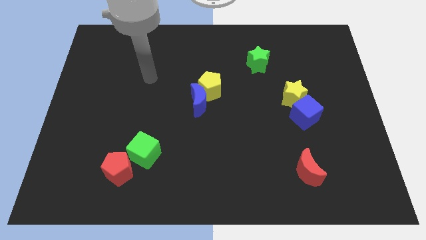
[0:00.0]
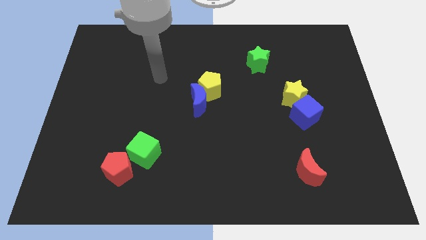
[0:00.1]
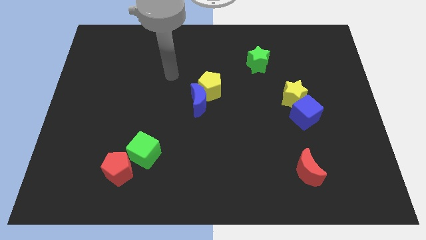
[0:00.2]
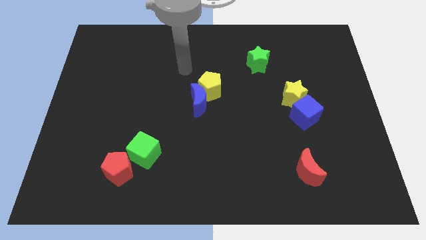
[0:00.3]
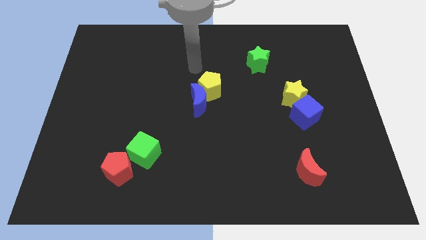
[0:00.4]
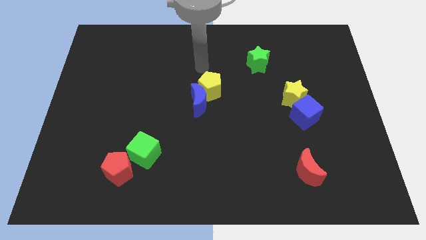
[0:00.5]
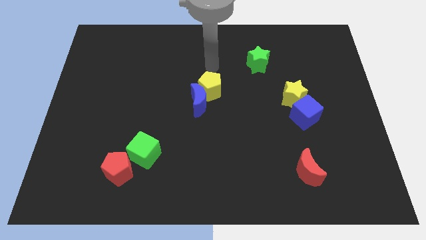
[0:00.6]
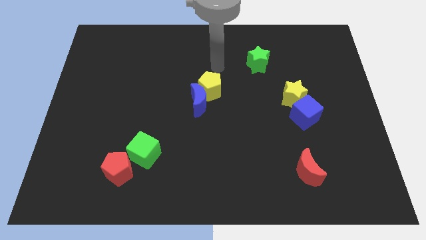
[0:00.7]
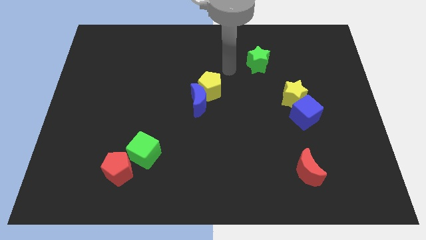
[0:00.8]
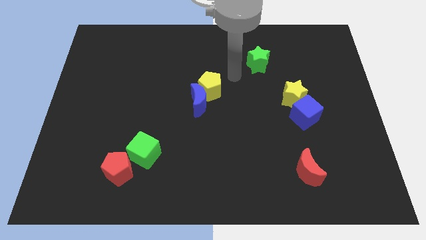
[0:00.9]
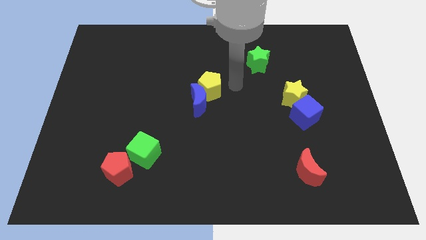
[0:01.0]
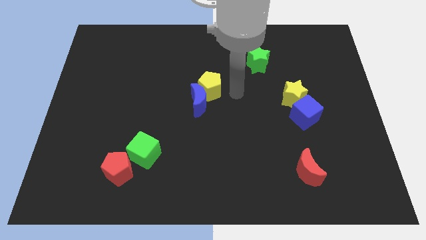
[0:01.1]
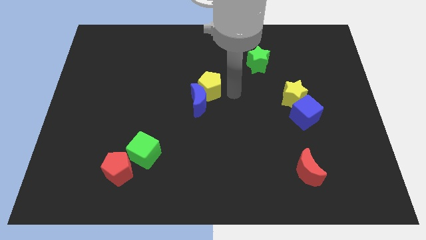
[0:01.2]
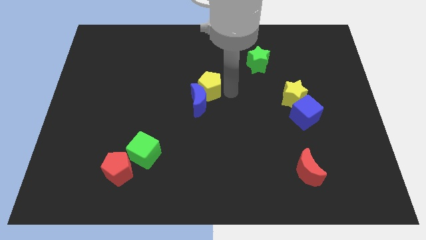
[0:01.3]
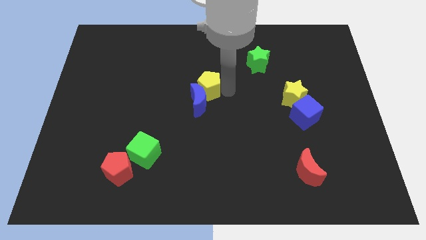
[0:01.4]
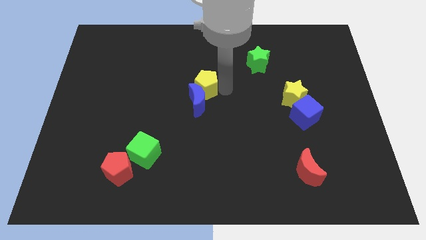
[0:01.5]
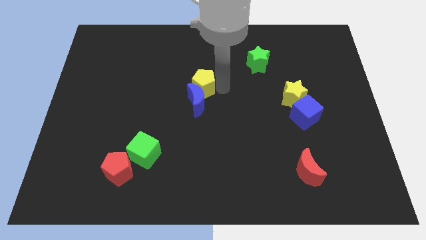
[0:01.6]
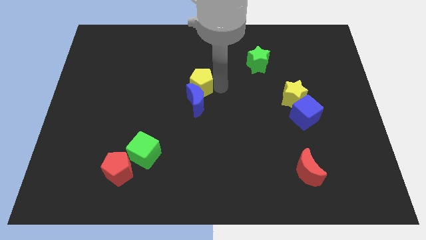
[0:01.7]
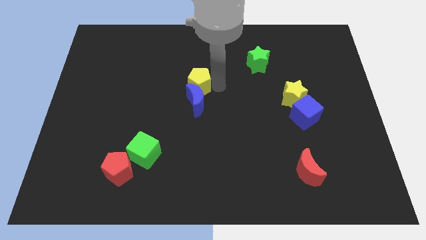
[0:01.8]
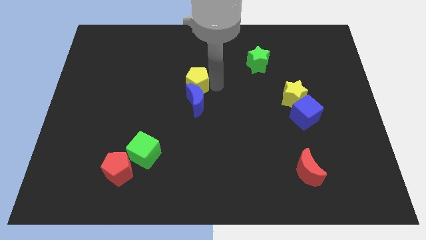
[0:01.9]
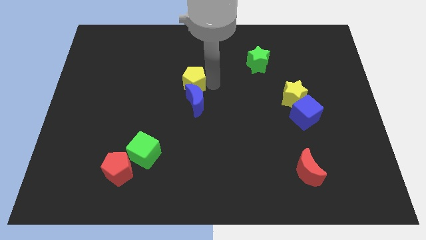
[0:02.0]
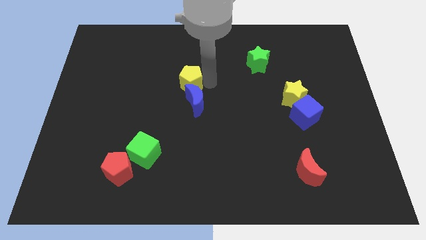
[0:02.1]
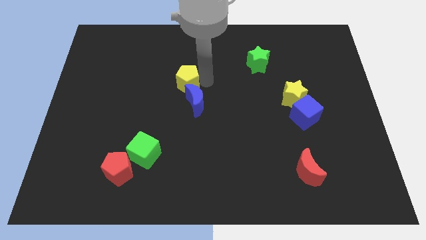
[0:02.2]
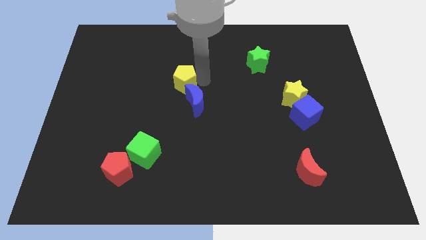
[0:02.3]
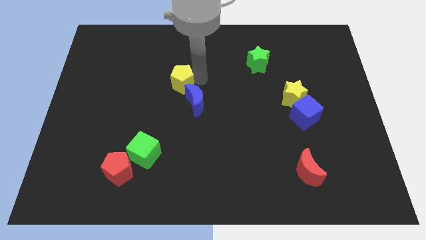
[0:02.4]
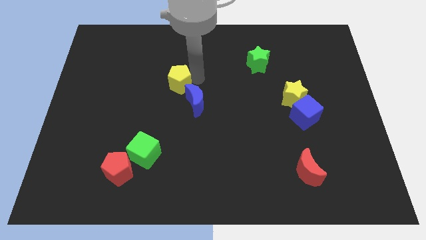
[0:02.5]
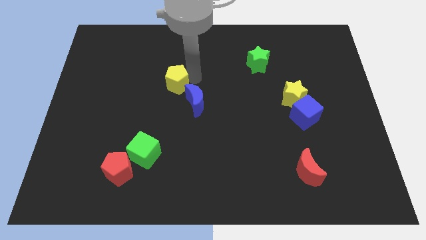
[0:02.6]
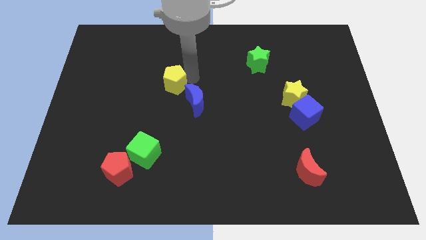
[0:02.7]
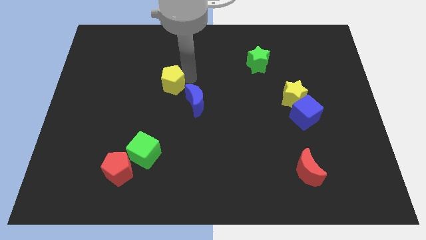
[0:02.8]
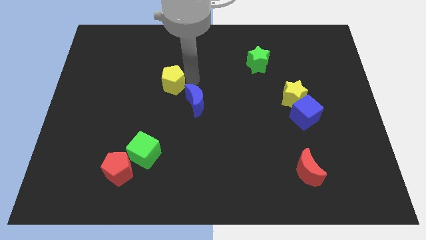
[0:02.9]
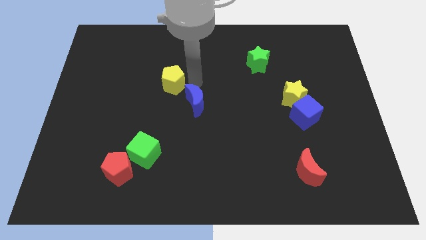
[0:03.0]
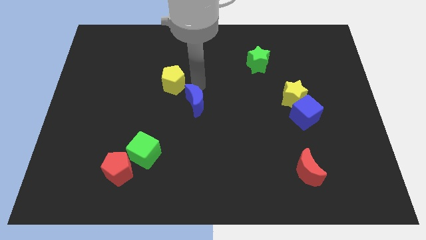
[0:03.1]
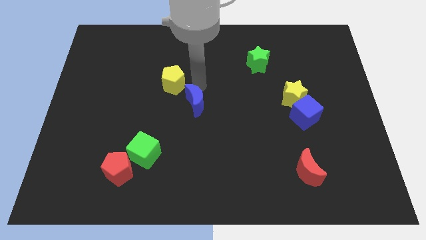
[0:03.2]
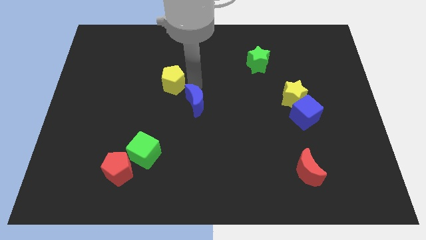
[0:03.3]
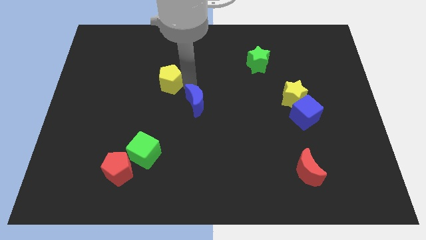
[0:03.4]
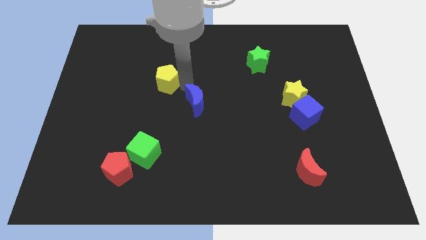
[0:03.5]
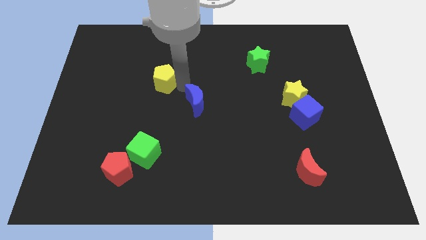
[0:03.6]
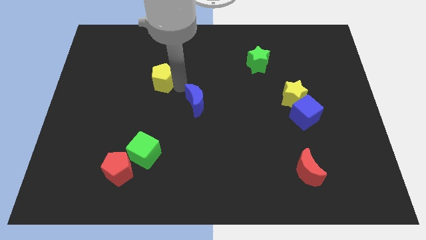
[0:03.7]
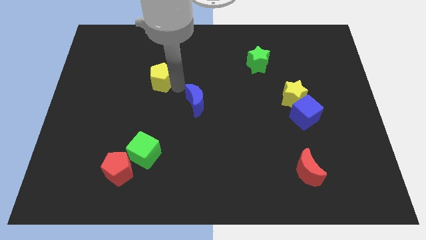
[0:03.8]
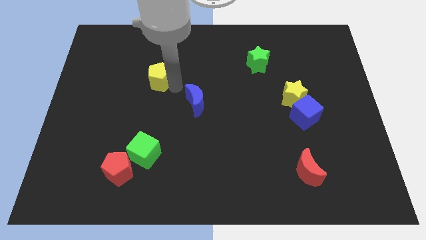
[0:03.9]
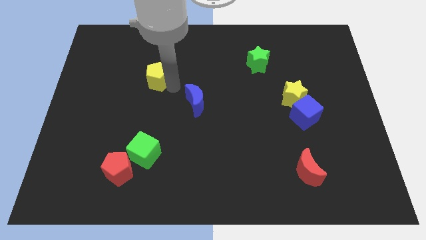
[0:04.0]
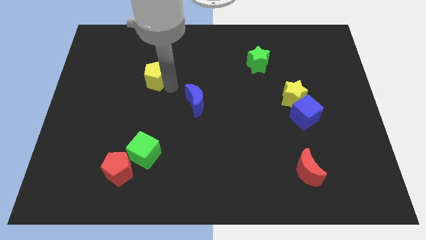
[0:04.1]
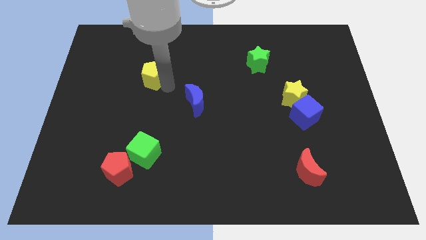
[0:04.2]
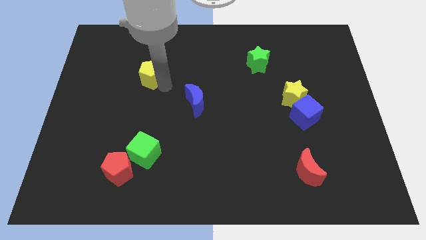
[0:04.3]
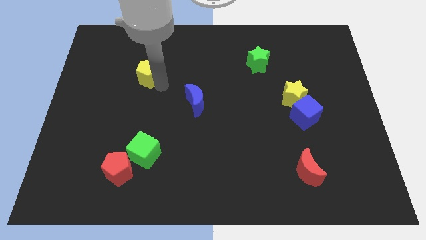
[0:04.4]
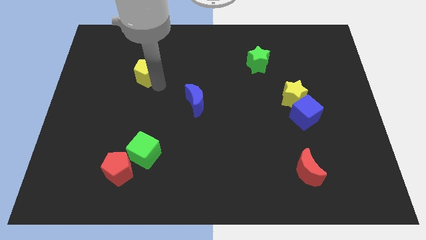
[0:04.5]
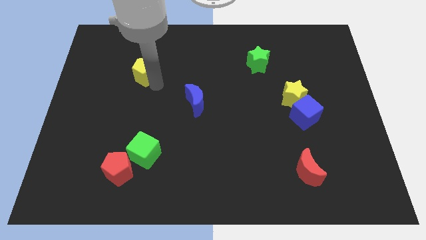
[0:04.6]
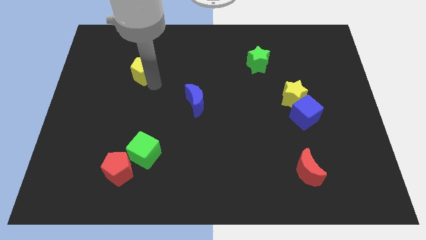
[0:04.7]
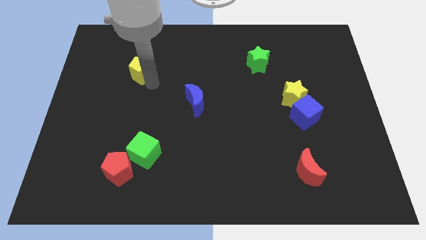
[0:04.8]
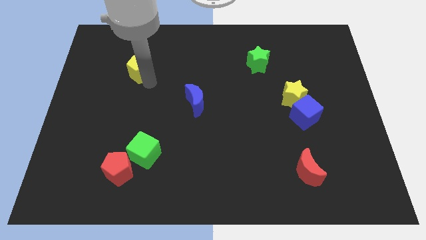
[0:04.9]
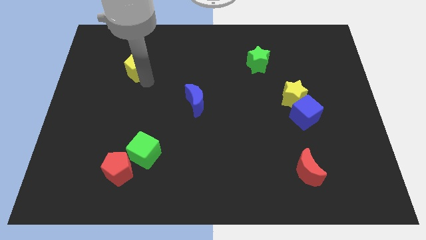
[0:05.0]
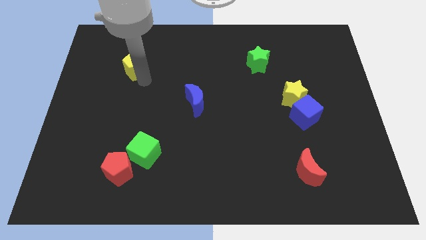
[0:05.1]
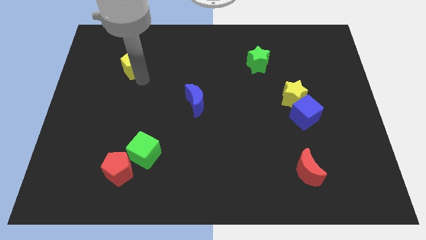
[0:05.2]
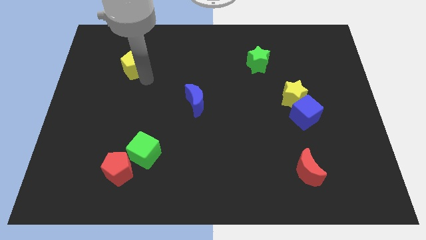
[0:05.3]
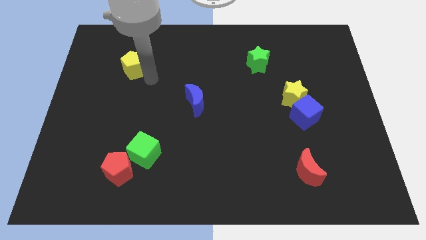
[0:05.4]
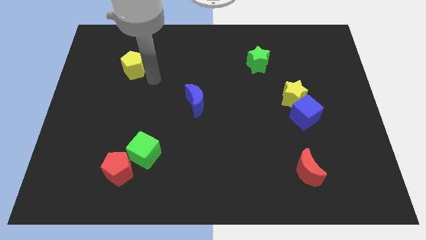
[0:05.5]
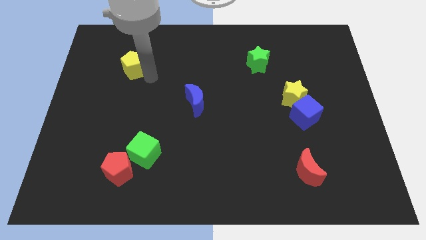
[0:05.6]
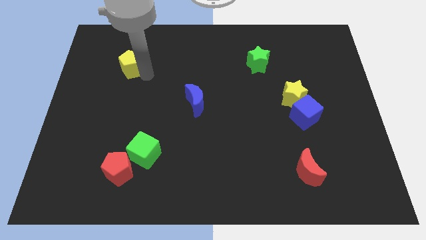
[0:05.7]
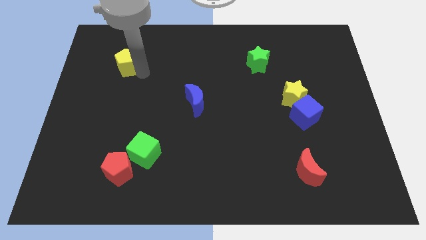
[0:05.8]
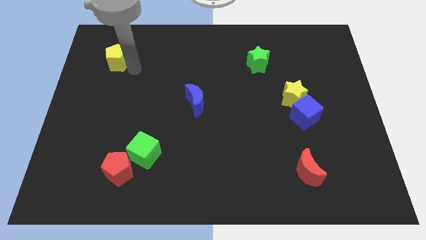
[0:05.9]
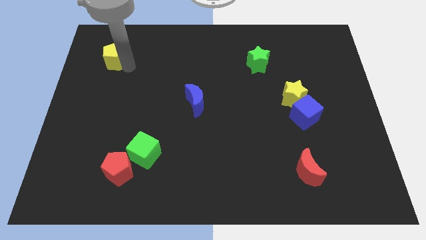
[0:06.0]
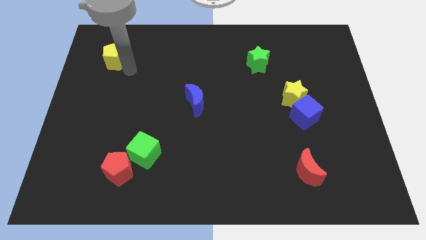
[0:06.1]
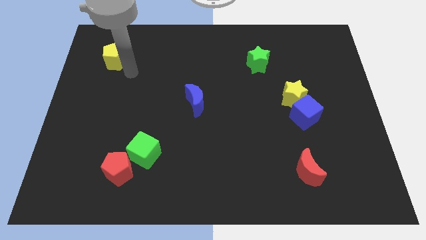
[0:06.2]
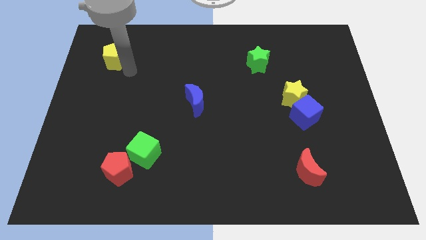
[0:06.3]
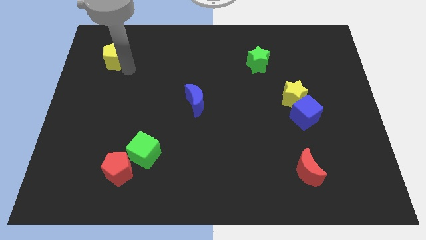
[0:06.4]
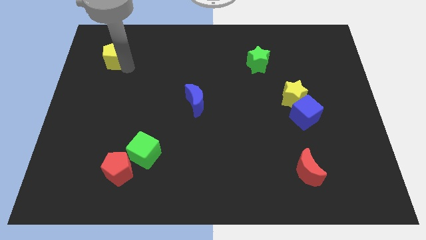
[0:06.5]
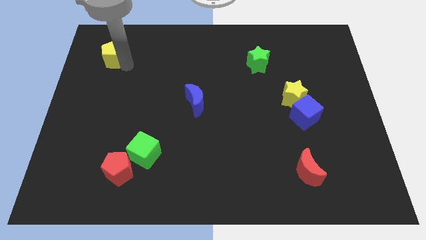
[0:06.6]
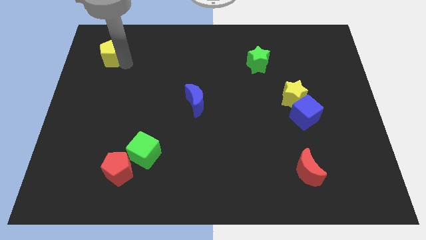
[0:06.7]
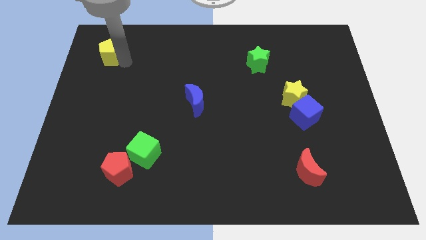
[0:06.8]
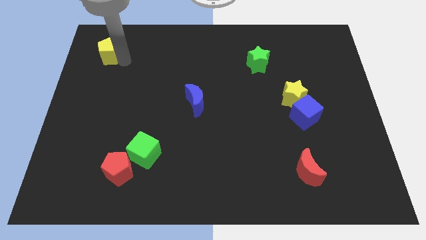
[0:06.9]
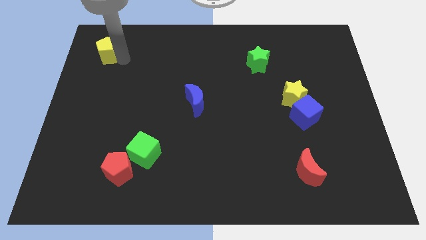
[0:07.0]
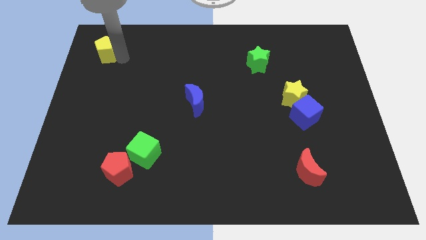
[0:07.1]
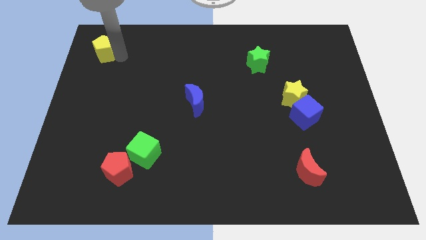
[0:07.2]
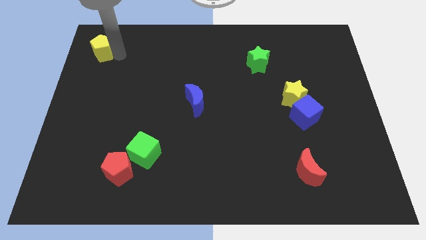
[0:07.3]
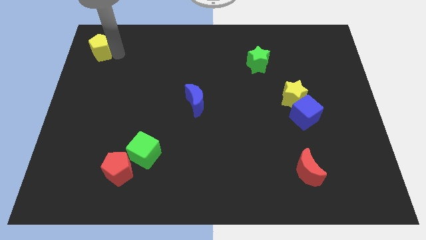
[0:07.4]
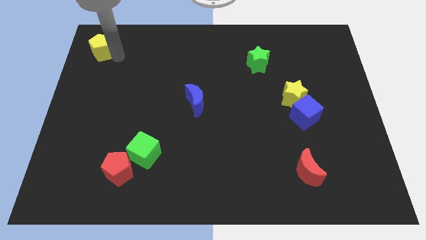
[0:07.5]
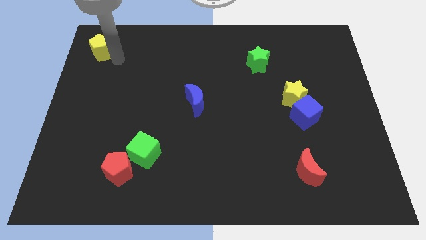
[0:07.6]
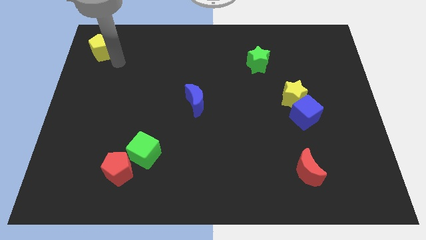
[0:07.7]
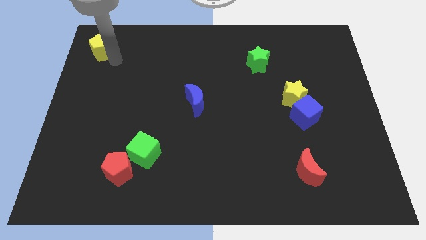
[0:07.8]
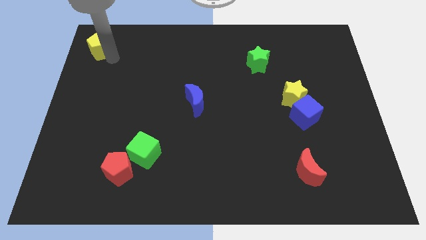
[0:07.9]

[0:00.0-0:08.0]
put the yellow pentagon to the upper left corner
